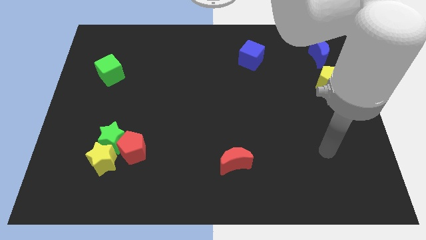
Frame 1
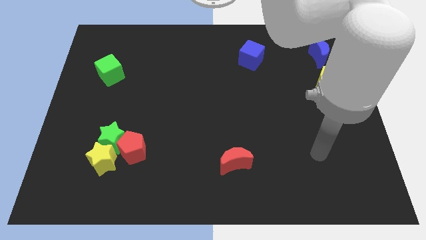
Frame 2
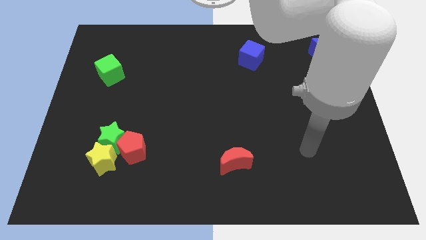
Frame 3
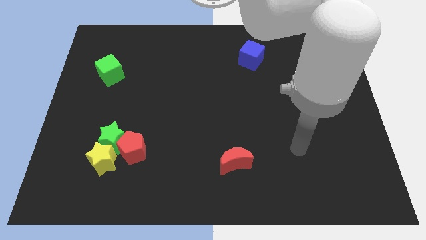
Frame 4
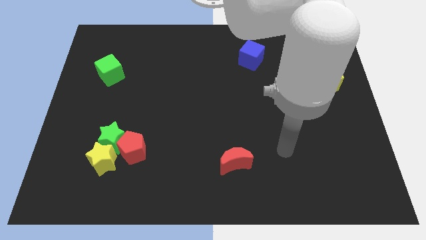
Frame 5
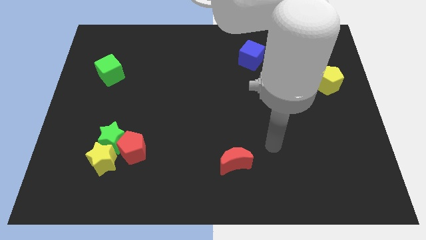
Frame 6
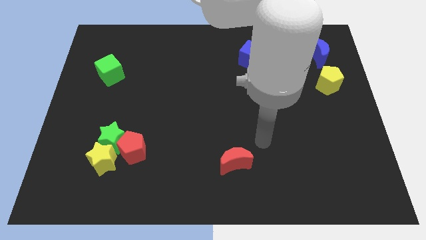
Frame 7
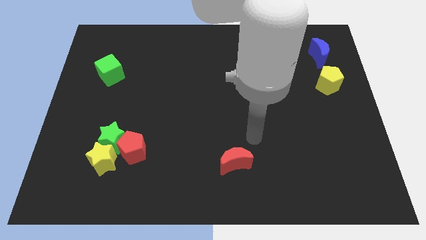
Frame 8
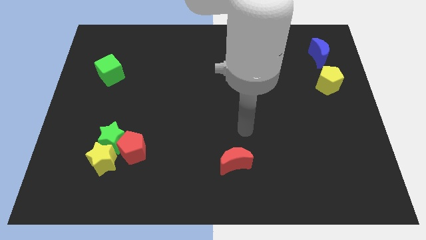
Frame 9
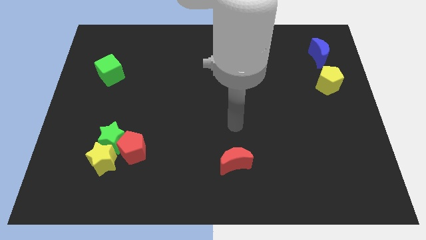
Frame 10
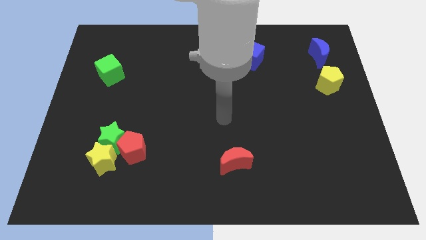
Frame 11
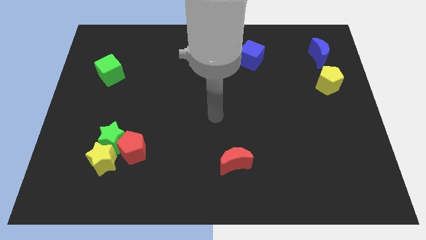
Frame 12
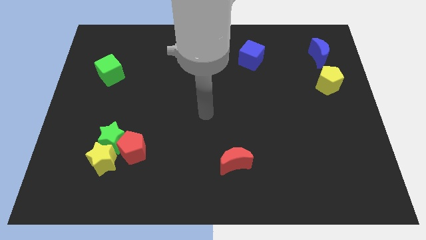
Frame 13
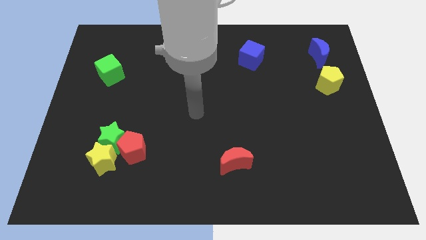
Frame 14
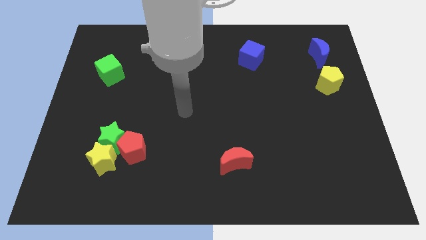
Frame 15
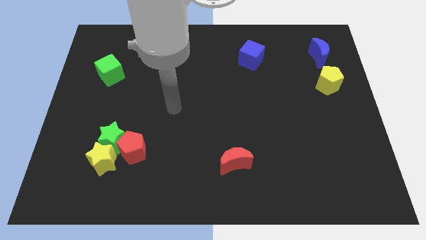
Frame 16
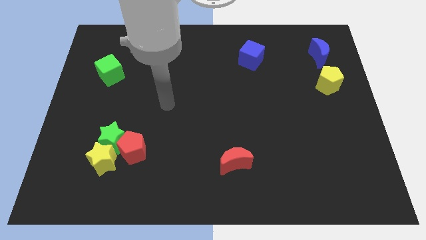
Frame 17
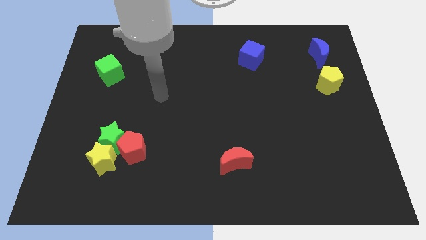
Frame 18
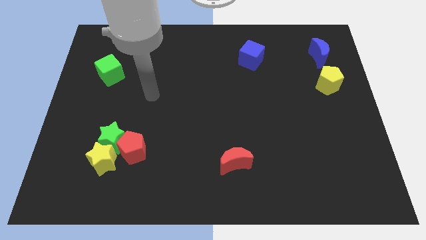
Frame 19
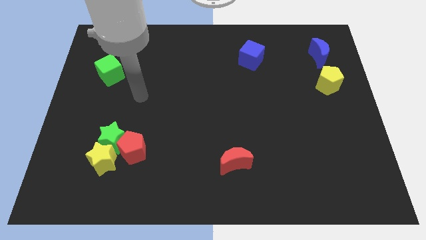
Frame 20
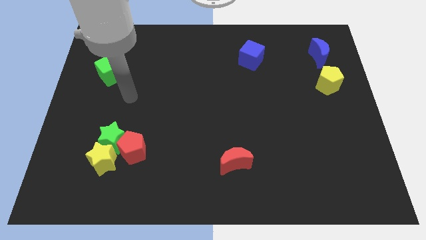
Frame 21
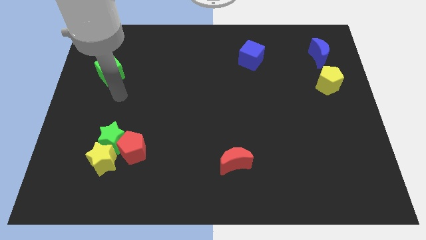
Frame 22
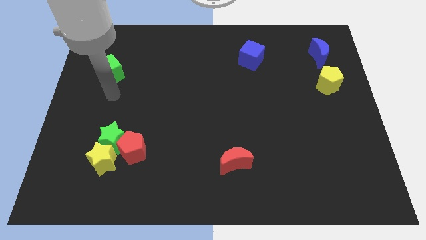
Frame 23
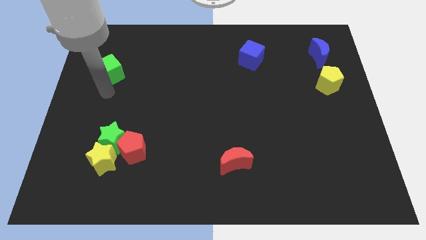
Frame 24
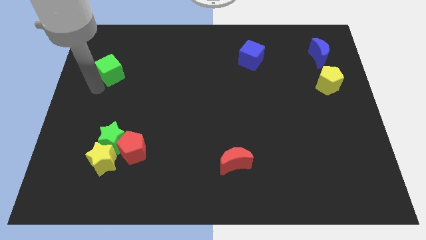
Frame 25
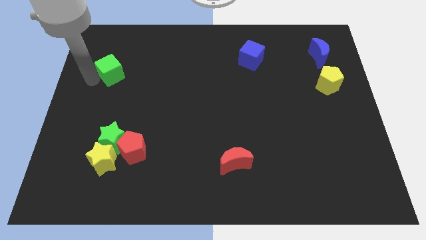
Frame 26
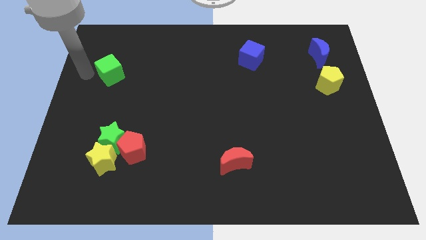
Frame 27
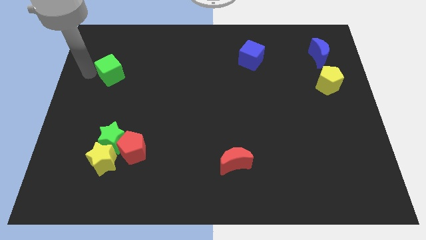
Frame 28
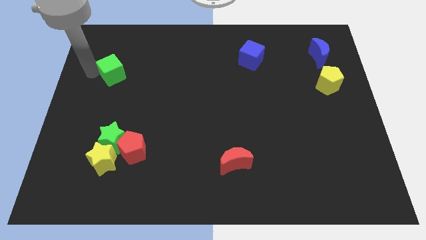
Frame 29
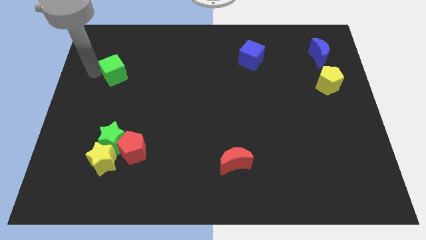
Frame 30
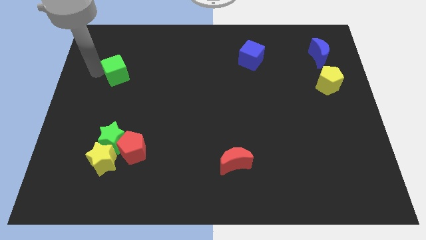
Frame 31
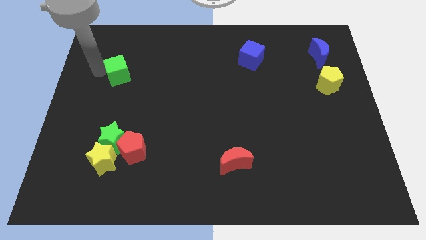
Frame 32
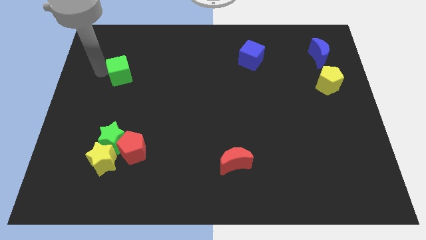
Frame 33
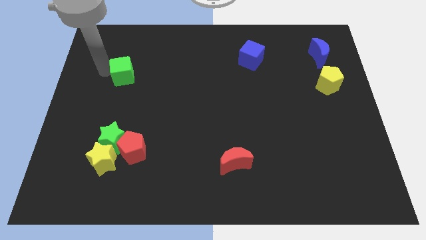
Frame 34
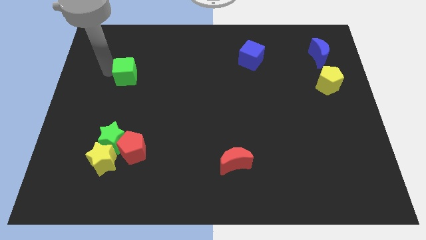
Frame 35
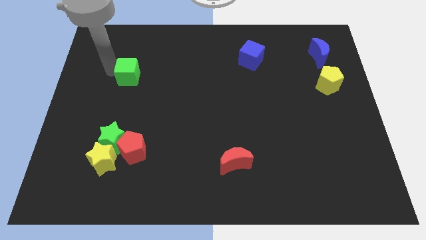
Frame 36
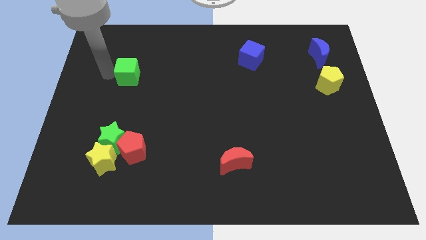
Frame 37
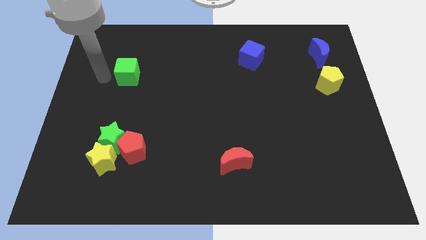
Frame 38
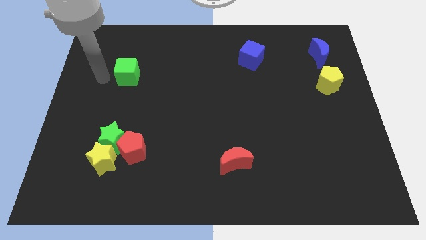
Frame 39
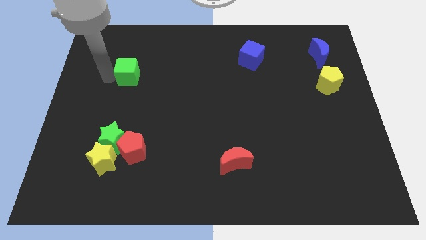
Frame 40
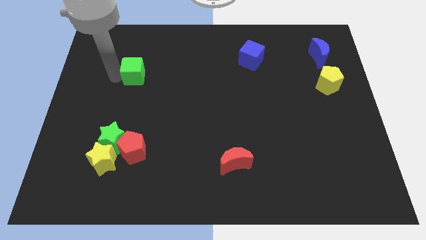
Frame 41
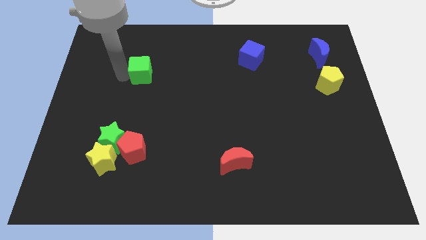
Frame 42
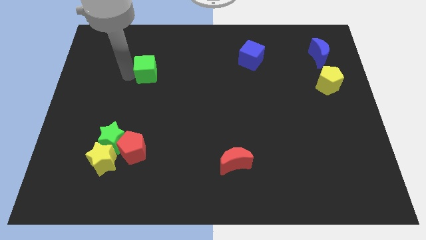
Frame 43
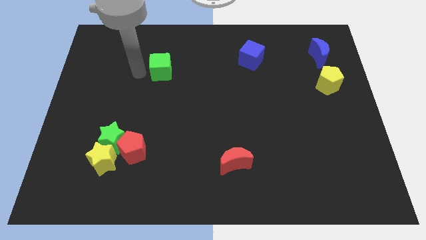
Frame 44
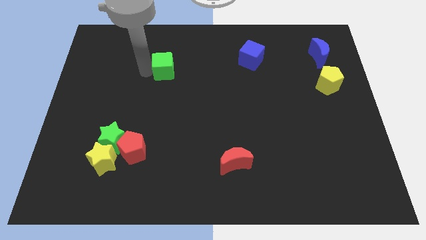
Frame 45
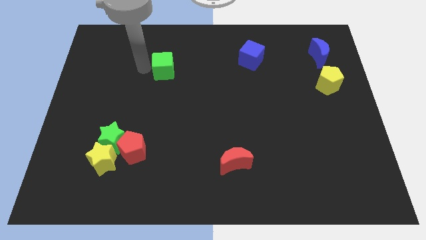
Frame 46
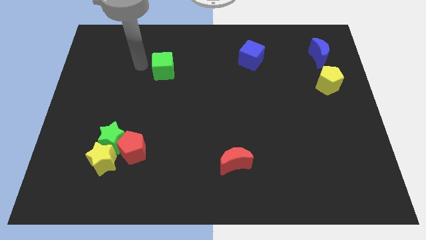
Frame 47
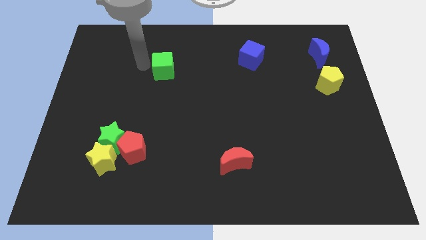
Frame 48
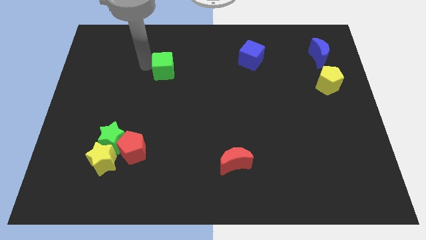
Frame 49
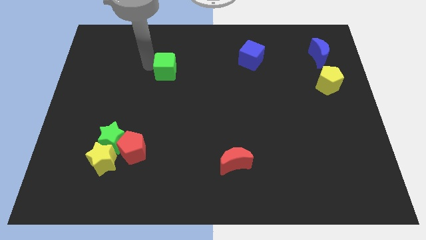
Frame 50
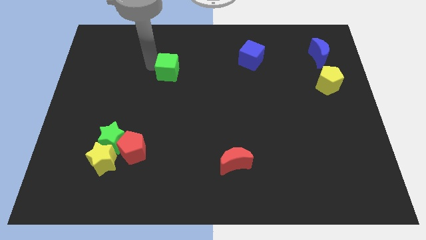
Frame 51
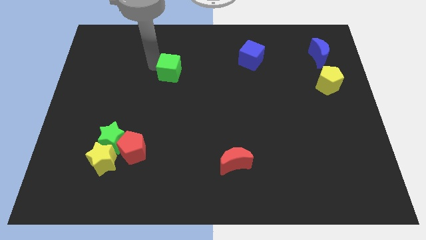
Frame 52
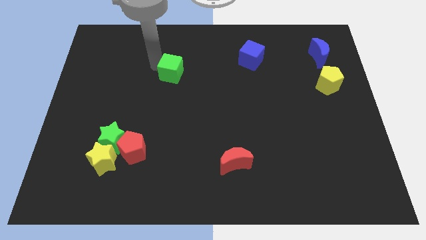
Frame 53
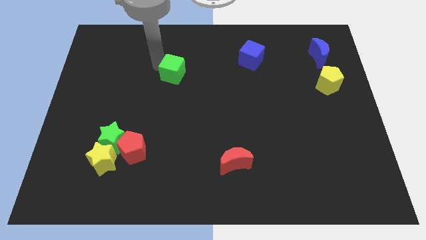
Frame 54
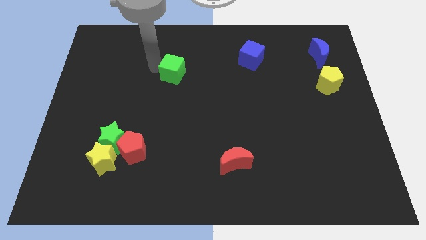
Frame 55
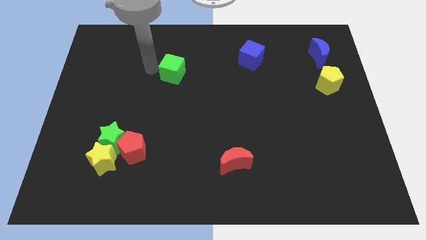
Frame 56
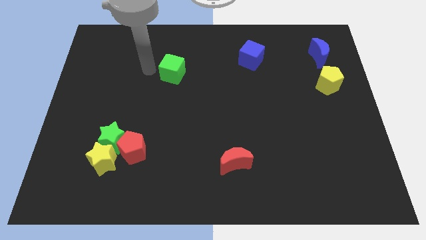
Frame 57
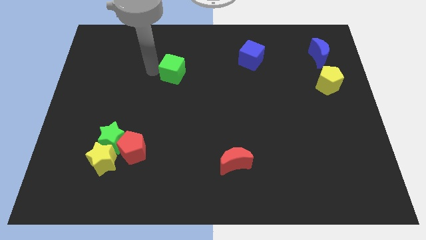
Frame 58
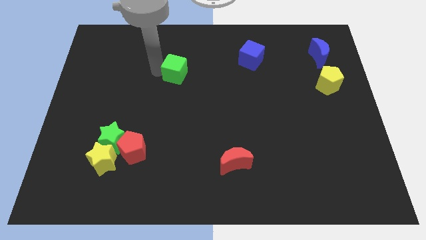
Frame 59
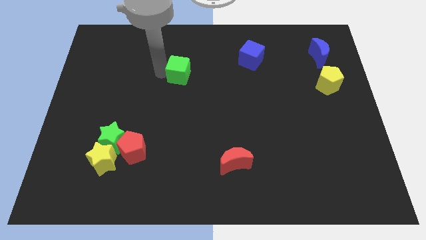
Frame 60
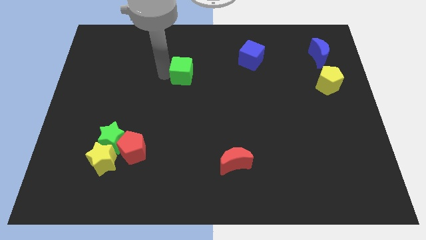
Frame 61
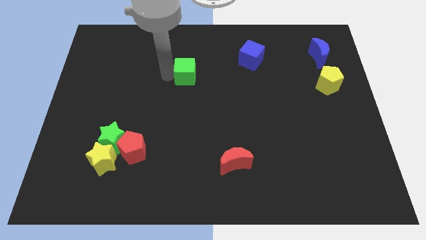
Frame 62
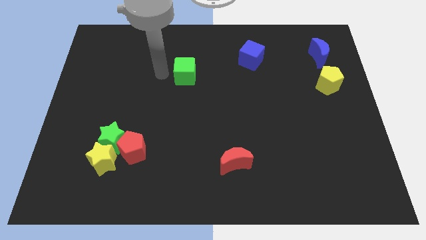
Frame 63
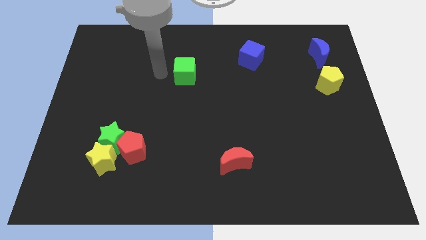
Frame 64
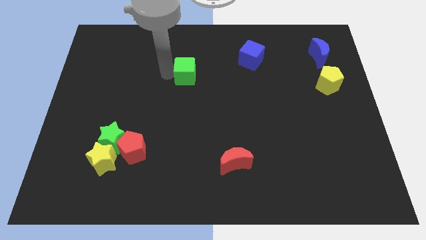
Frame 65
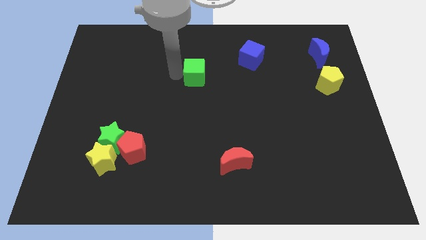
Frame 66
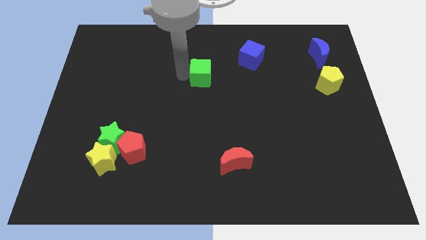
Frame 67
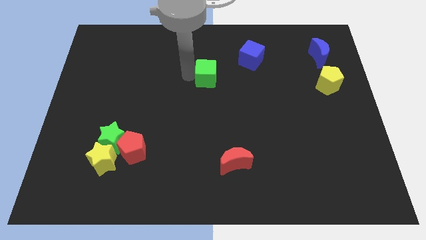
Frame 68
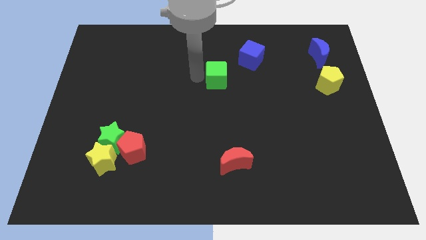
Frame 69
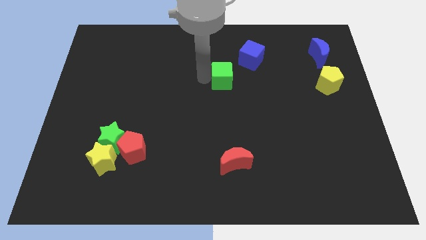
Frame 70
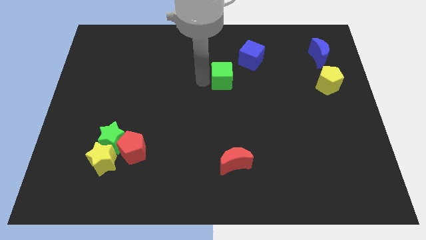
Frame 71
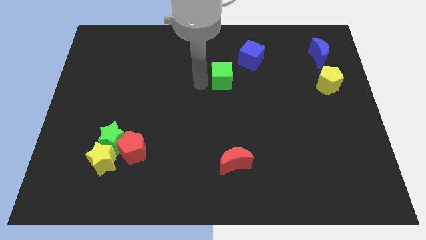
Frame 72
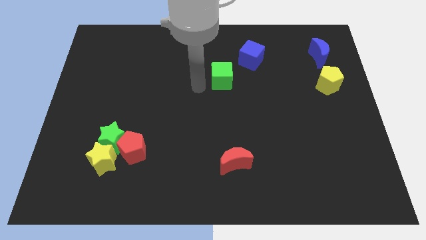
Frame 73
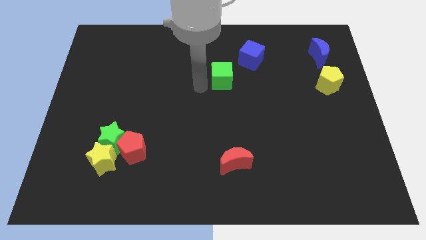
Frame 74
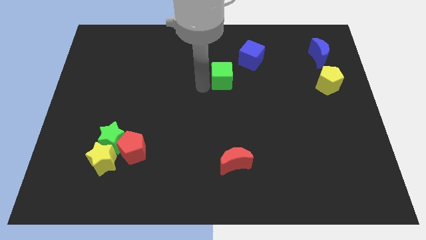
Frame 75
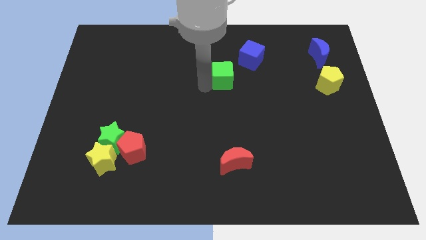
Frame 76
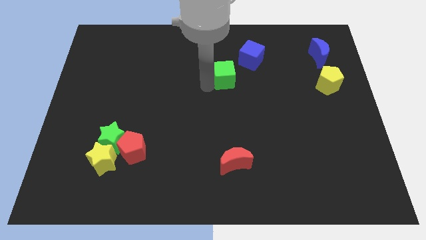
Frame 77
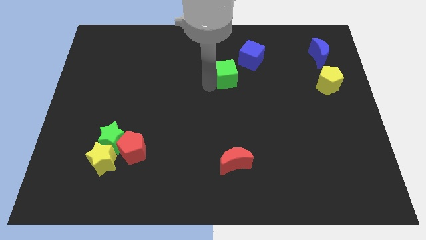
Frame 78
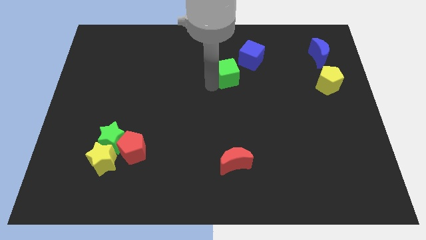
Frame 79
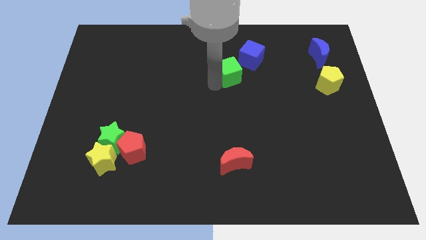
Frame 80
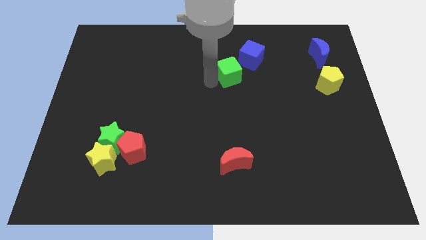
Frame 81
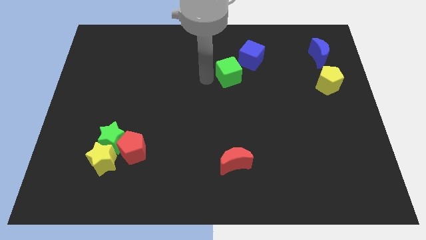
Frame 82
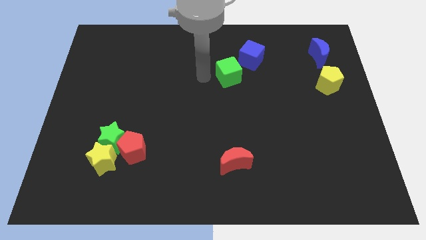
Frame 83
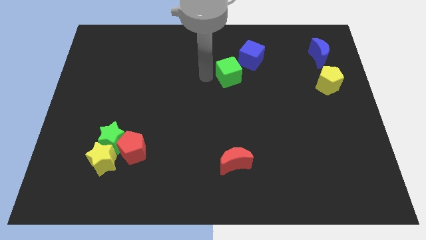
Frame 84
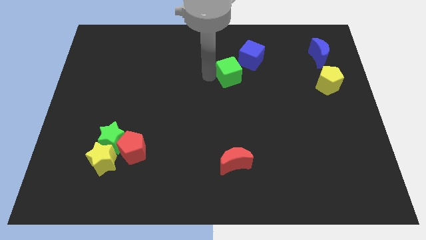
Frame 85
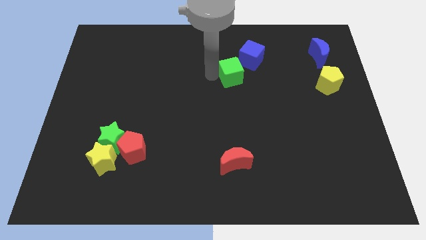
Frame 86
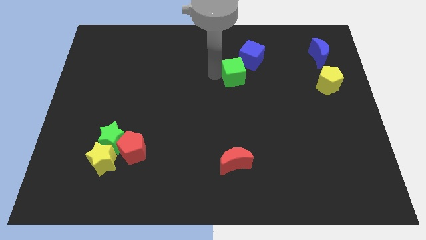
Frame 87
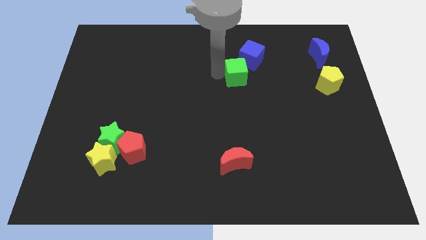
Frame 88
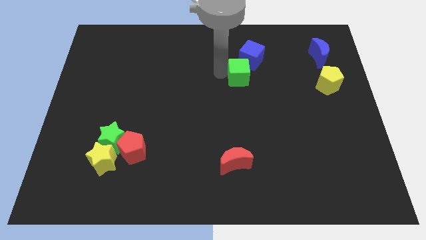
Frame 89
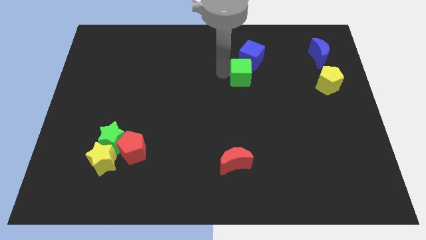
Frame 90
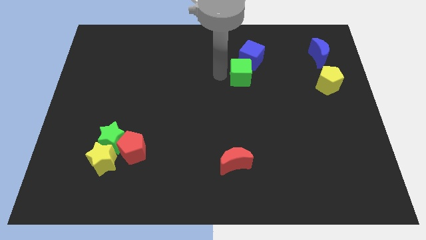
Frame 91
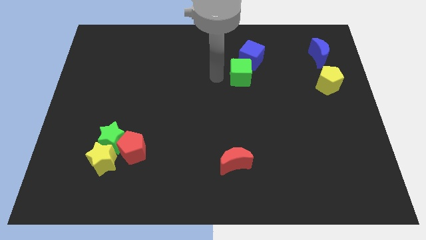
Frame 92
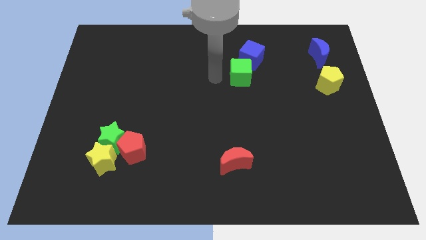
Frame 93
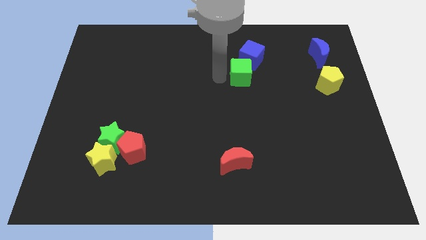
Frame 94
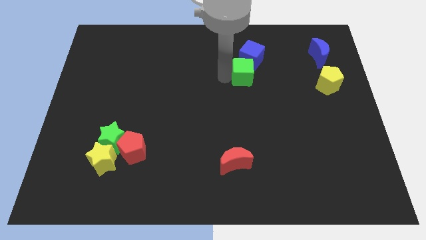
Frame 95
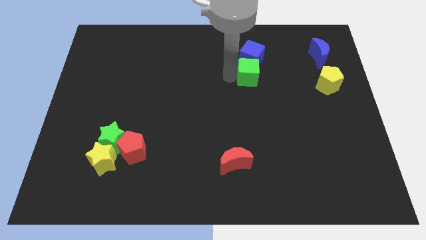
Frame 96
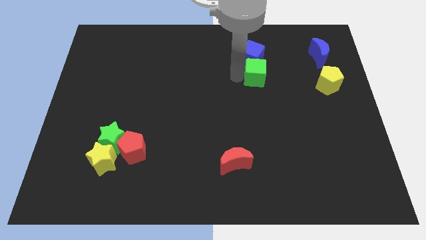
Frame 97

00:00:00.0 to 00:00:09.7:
put the green cube to the bottom right of the blue cube
